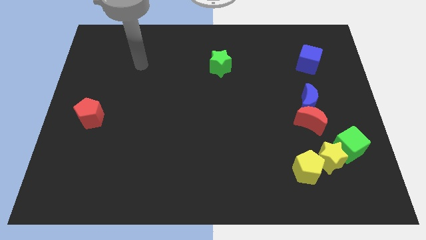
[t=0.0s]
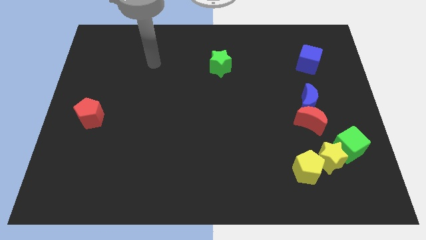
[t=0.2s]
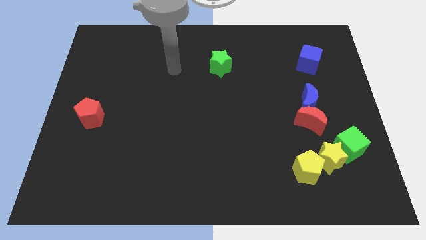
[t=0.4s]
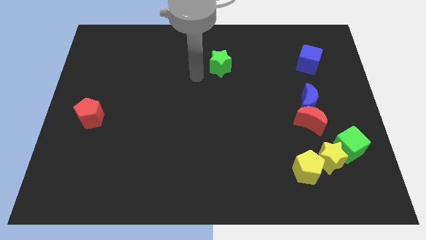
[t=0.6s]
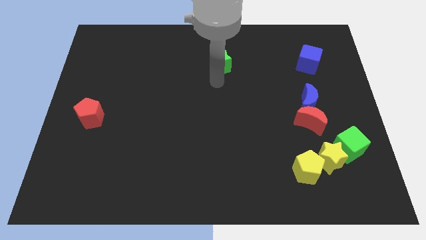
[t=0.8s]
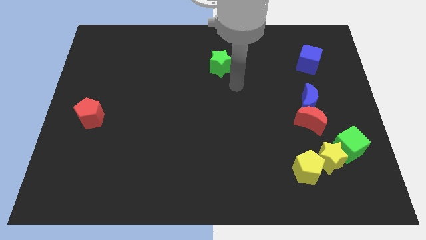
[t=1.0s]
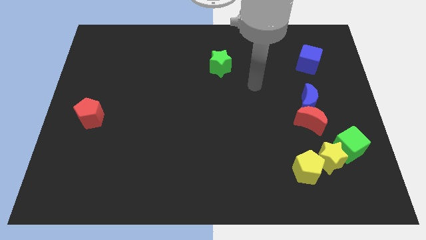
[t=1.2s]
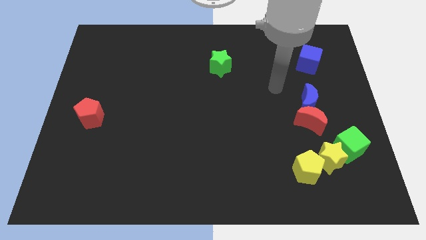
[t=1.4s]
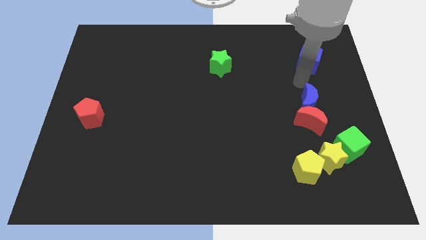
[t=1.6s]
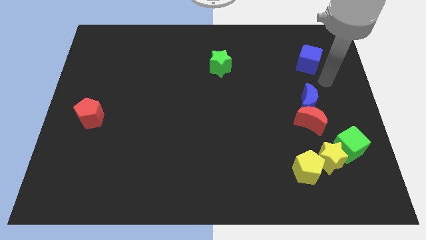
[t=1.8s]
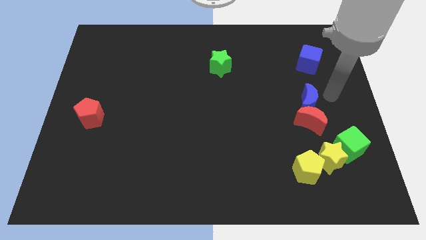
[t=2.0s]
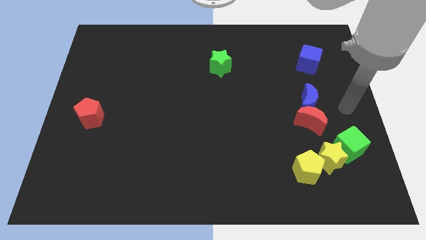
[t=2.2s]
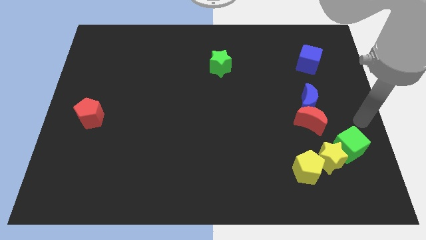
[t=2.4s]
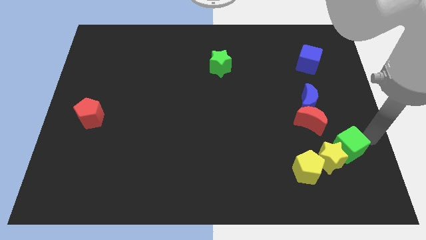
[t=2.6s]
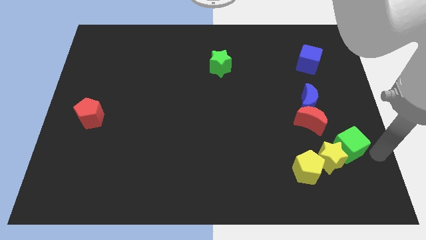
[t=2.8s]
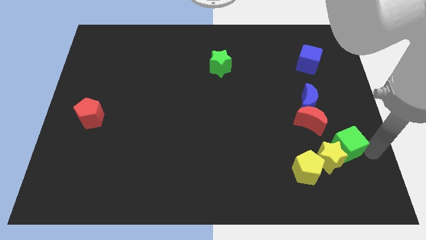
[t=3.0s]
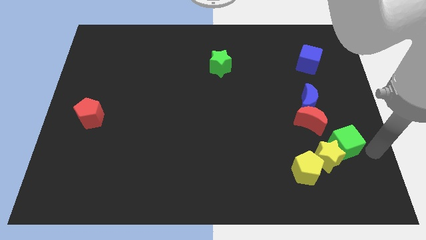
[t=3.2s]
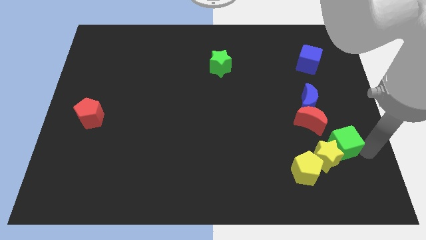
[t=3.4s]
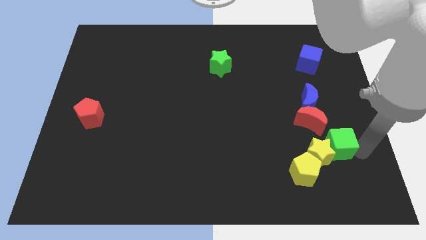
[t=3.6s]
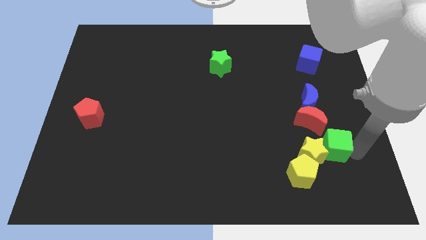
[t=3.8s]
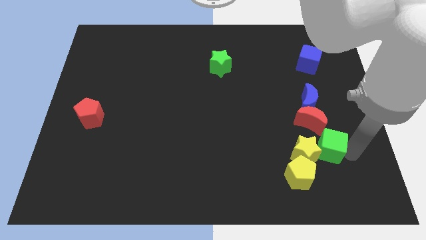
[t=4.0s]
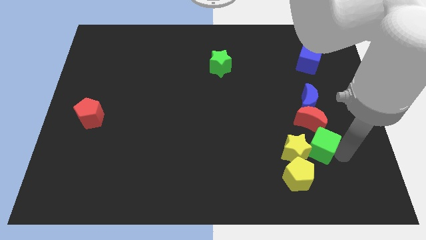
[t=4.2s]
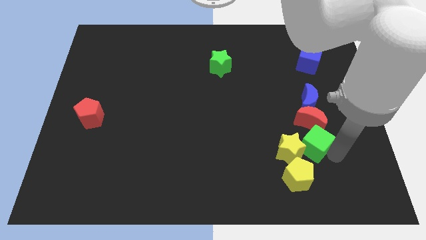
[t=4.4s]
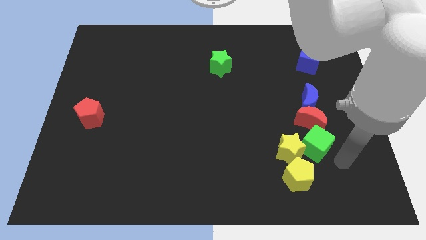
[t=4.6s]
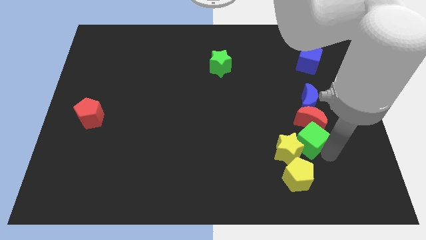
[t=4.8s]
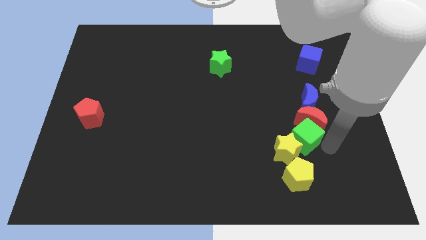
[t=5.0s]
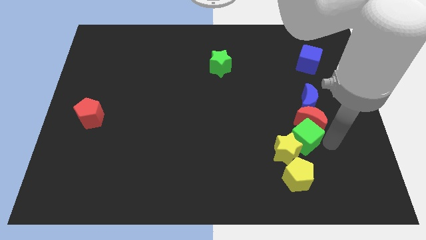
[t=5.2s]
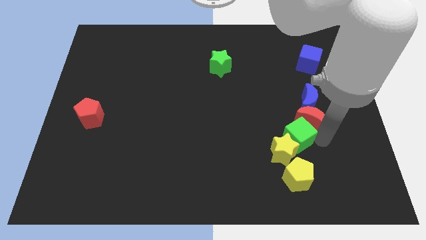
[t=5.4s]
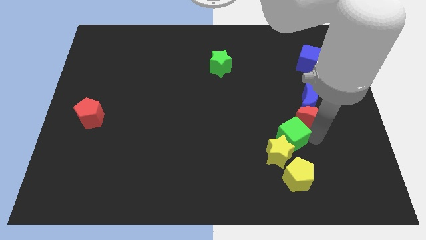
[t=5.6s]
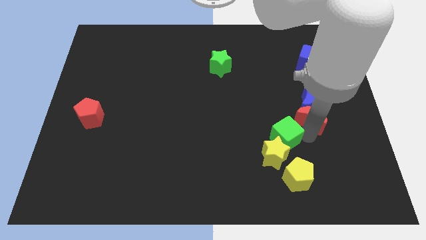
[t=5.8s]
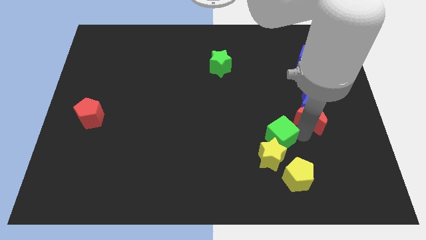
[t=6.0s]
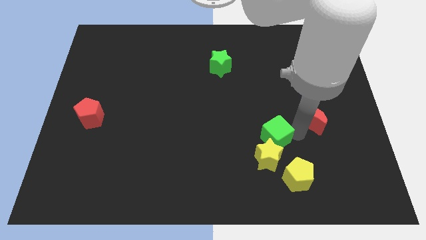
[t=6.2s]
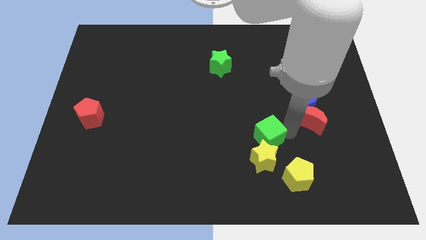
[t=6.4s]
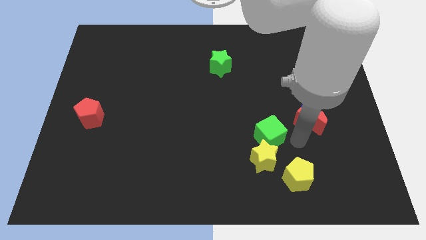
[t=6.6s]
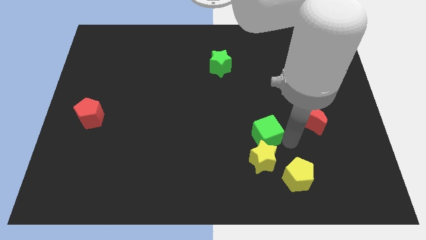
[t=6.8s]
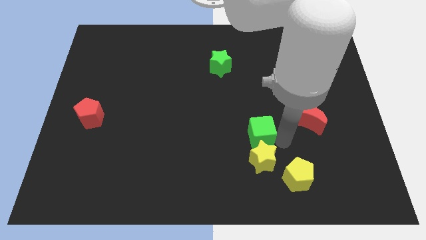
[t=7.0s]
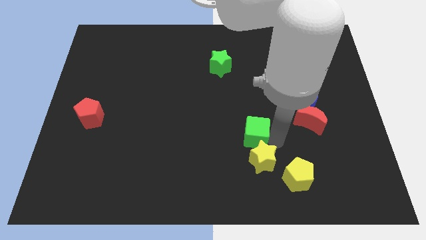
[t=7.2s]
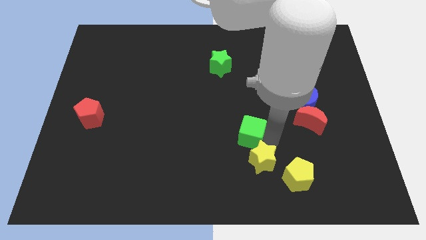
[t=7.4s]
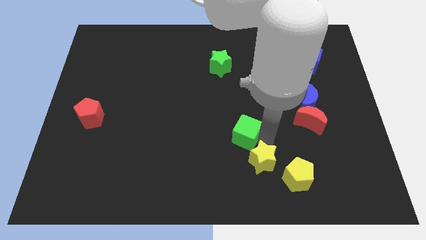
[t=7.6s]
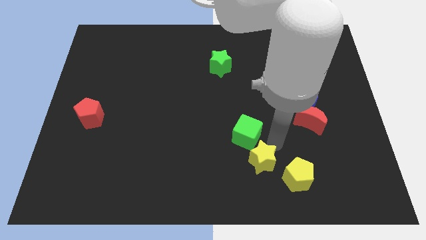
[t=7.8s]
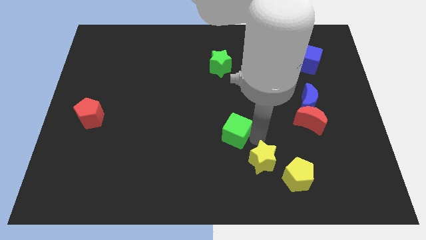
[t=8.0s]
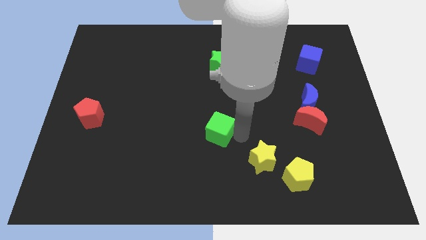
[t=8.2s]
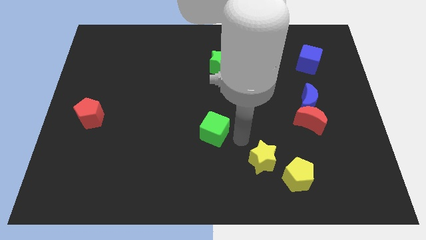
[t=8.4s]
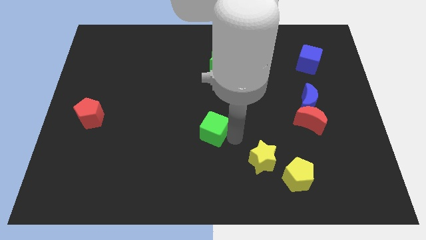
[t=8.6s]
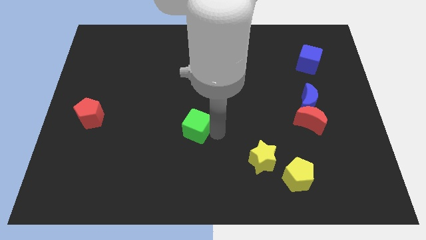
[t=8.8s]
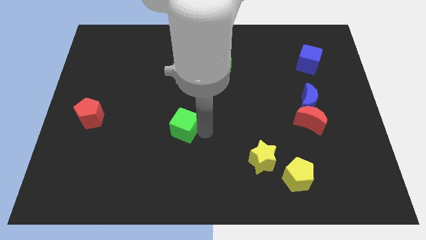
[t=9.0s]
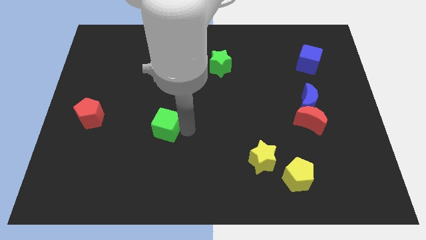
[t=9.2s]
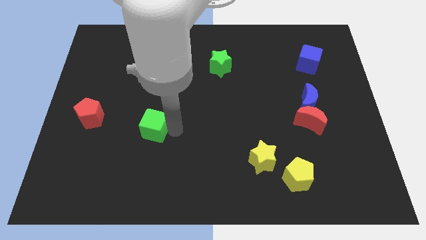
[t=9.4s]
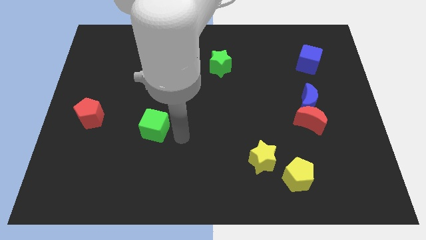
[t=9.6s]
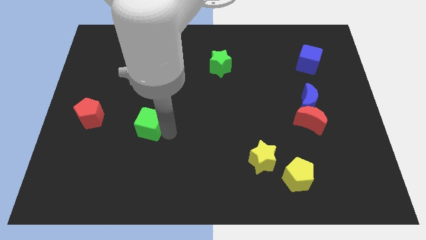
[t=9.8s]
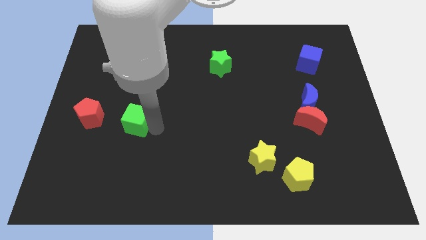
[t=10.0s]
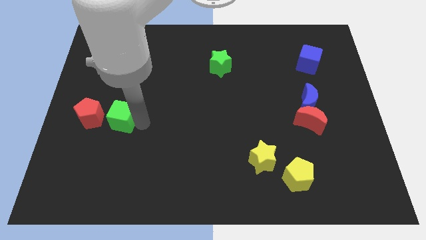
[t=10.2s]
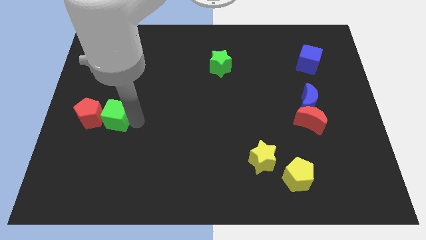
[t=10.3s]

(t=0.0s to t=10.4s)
push the green cube towards the red pentagon

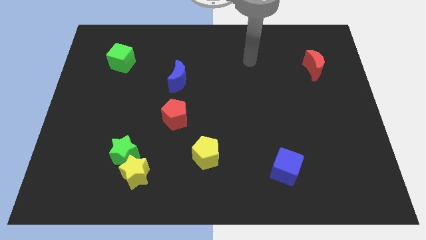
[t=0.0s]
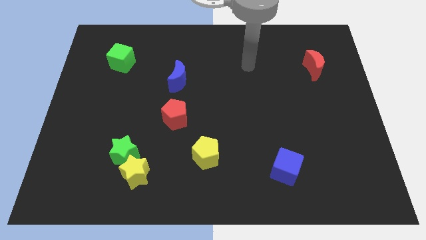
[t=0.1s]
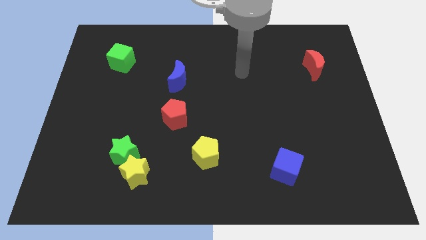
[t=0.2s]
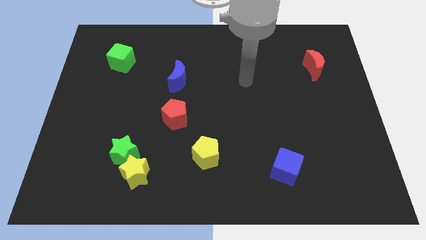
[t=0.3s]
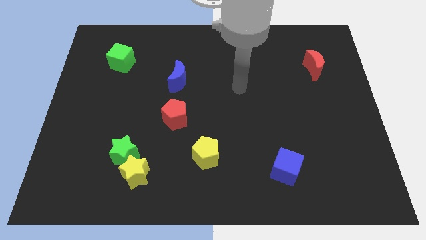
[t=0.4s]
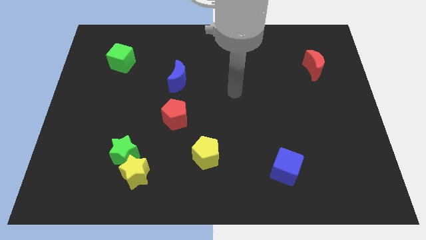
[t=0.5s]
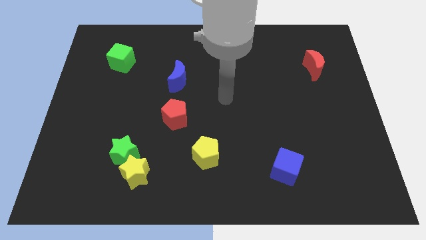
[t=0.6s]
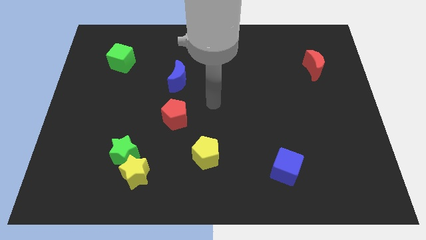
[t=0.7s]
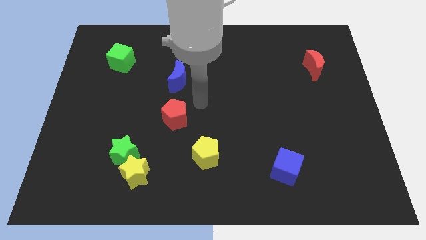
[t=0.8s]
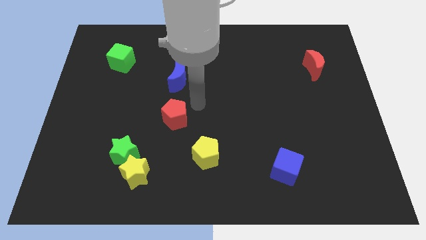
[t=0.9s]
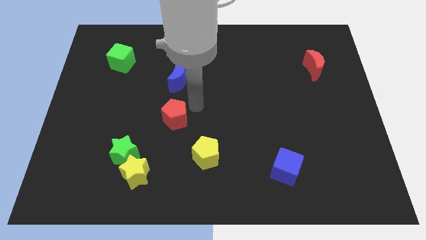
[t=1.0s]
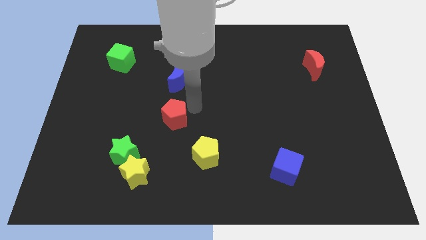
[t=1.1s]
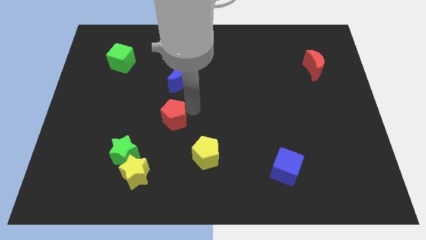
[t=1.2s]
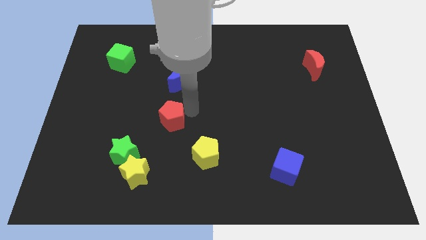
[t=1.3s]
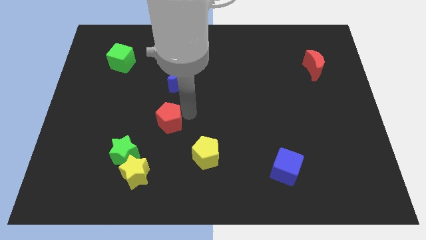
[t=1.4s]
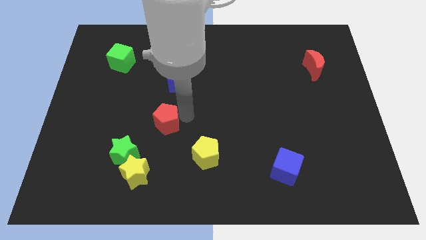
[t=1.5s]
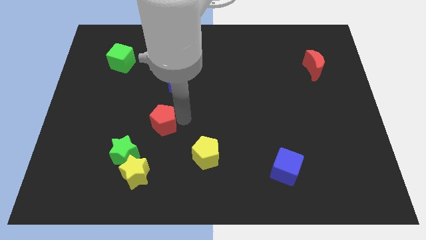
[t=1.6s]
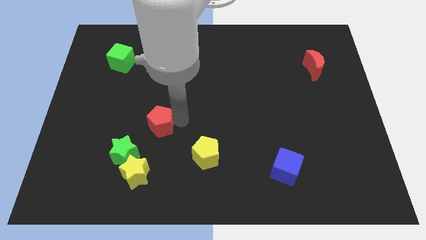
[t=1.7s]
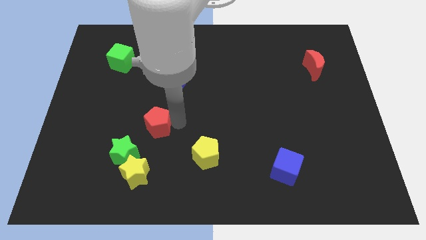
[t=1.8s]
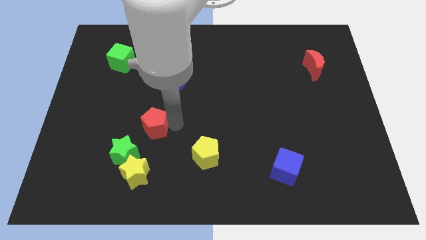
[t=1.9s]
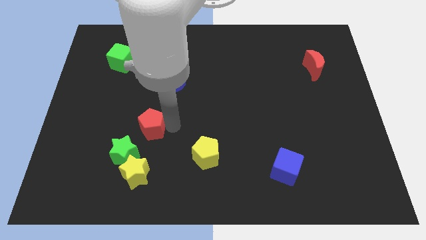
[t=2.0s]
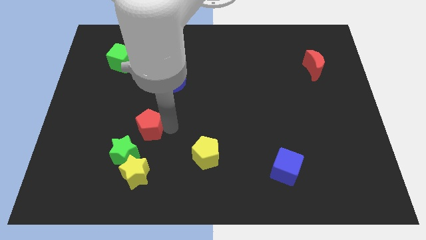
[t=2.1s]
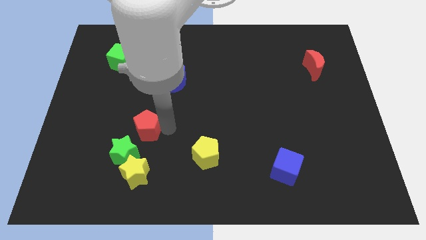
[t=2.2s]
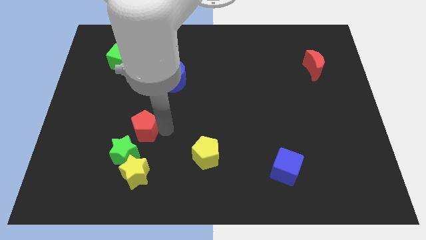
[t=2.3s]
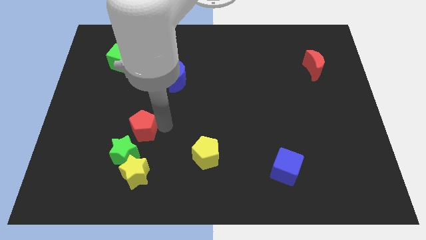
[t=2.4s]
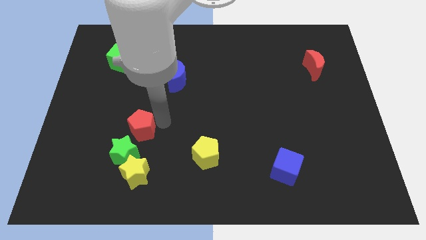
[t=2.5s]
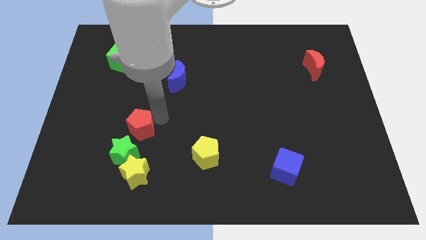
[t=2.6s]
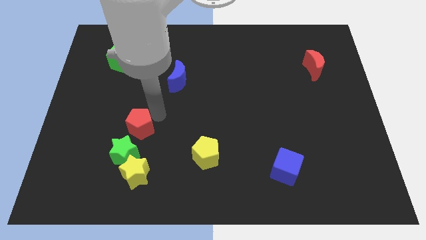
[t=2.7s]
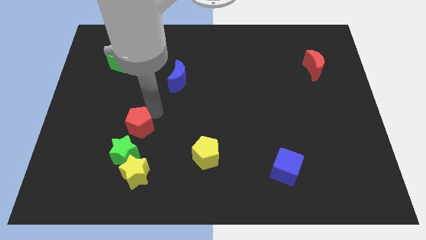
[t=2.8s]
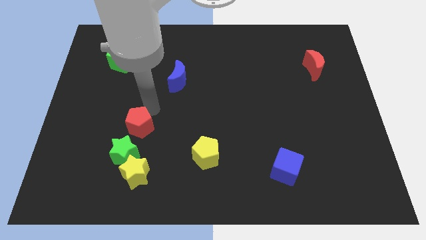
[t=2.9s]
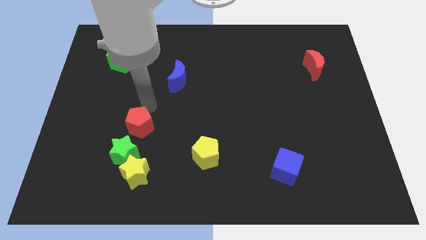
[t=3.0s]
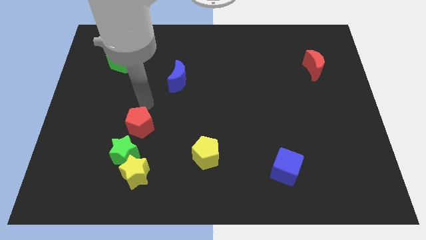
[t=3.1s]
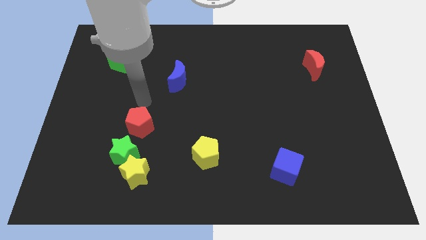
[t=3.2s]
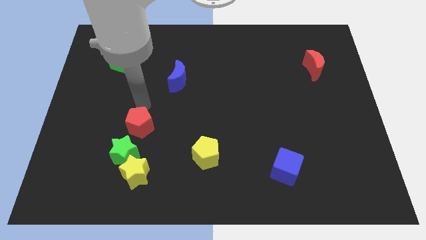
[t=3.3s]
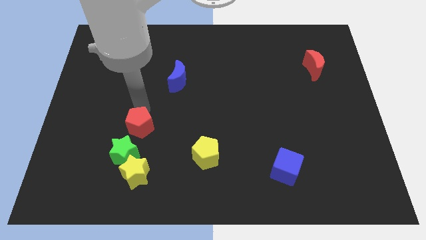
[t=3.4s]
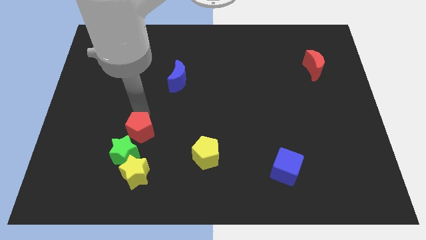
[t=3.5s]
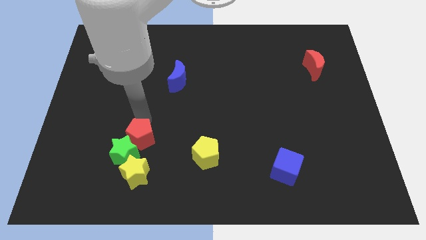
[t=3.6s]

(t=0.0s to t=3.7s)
slide the red pentagon next to the green star
